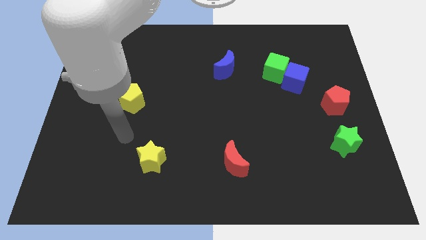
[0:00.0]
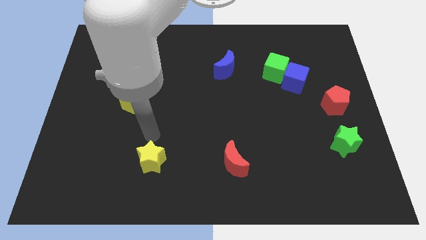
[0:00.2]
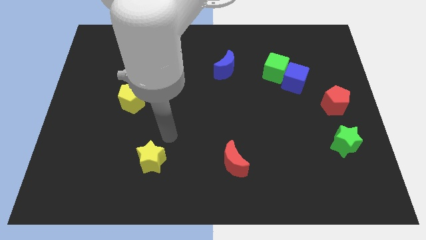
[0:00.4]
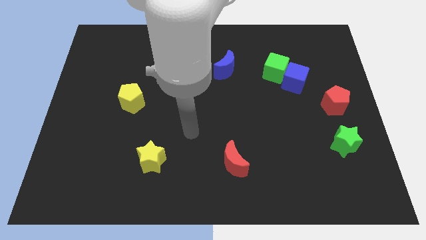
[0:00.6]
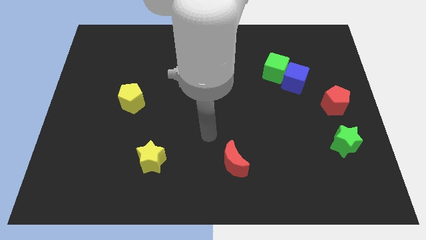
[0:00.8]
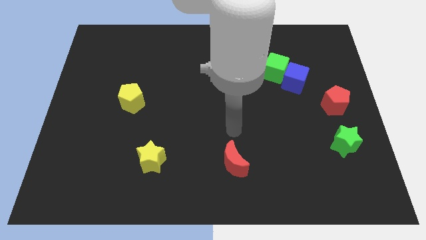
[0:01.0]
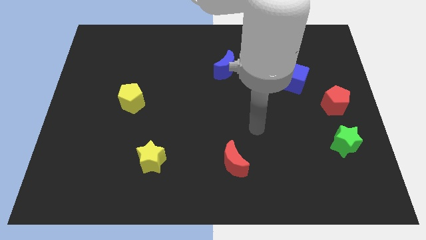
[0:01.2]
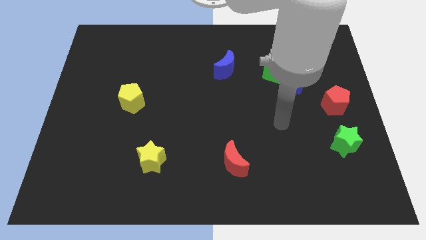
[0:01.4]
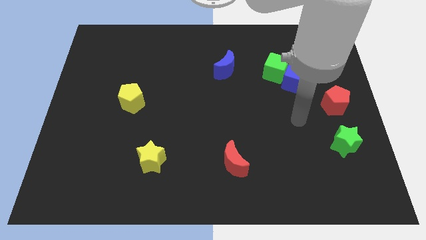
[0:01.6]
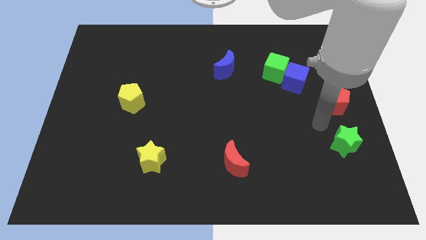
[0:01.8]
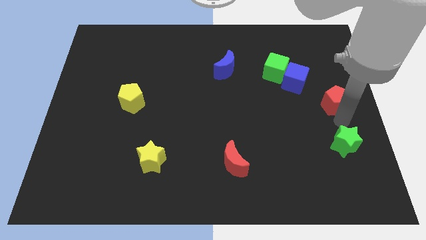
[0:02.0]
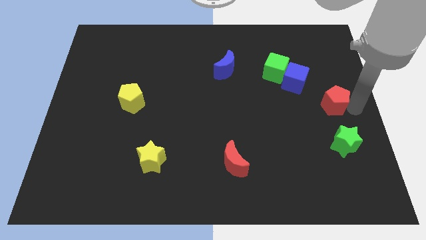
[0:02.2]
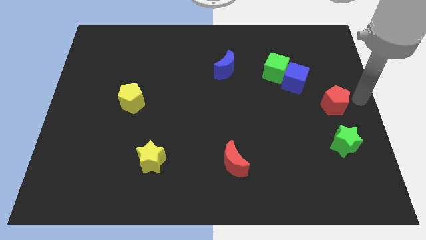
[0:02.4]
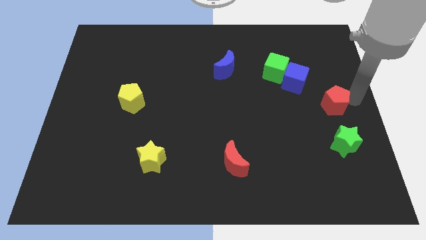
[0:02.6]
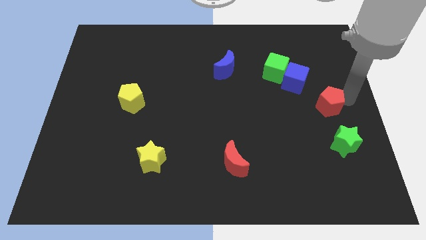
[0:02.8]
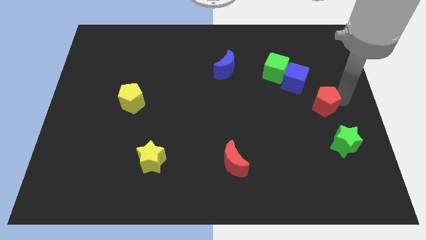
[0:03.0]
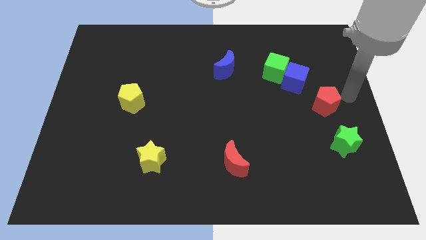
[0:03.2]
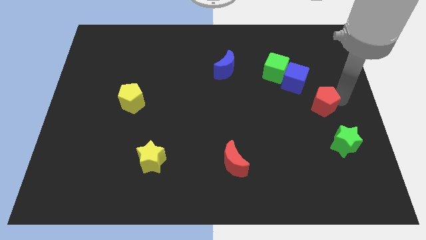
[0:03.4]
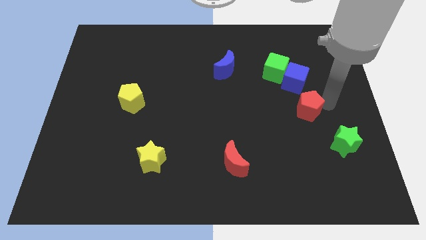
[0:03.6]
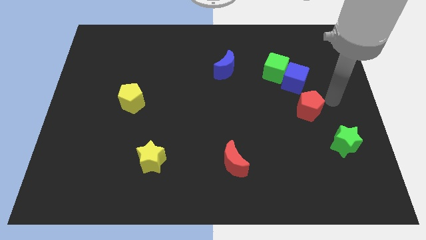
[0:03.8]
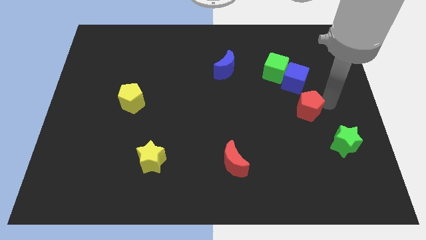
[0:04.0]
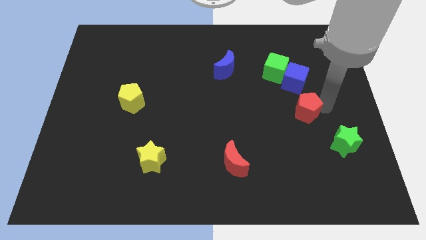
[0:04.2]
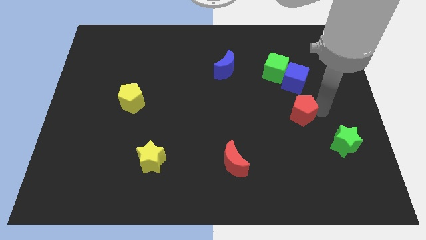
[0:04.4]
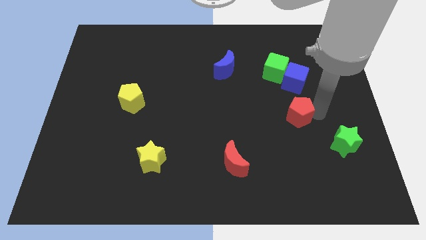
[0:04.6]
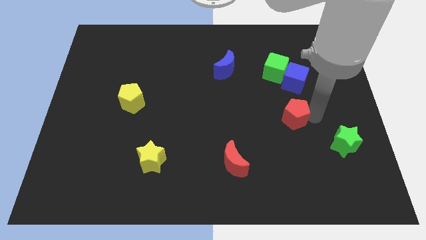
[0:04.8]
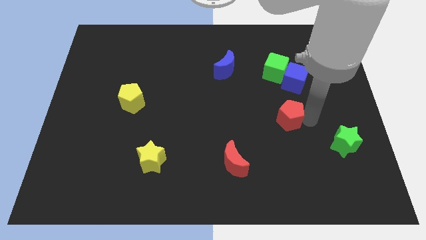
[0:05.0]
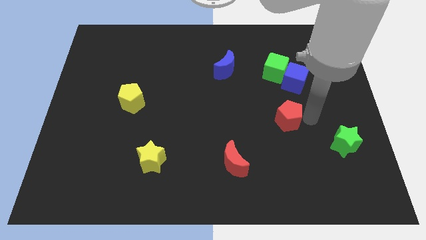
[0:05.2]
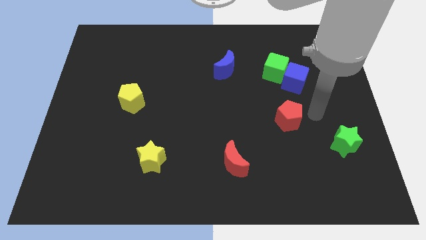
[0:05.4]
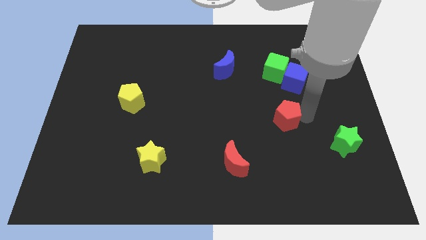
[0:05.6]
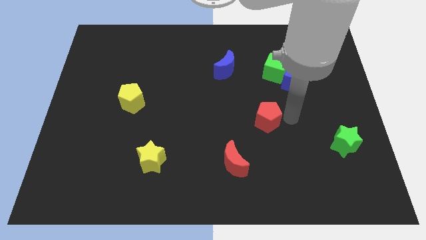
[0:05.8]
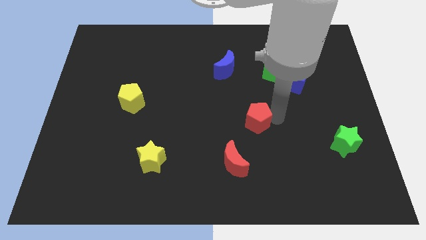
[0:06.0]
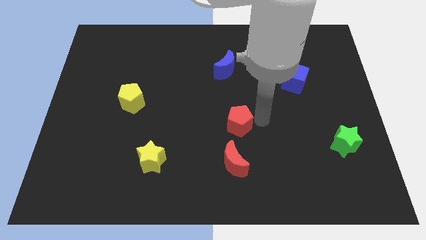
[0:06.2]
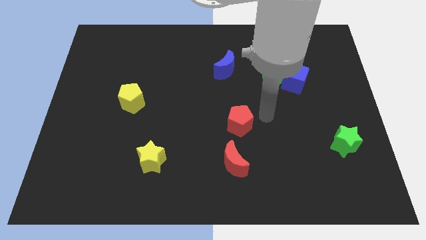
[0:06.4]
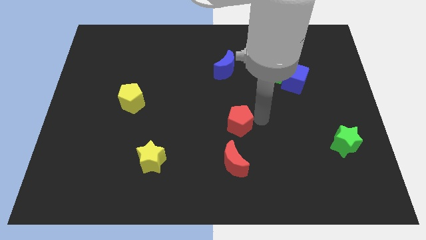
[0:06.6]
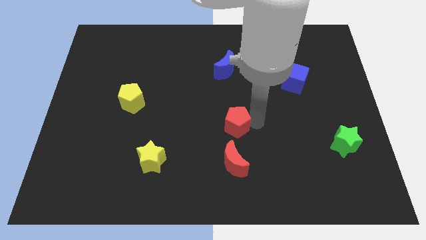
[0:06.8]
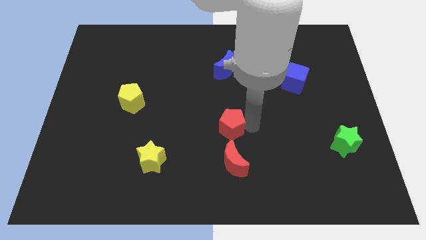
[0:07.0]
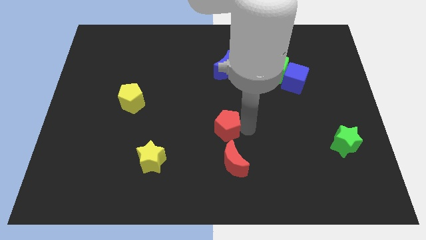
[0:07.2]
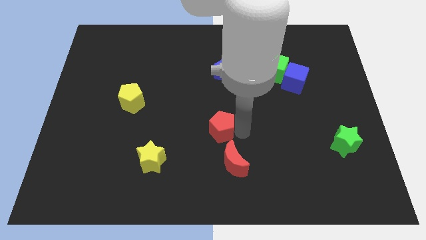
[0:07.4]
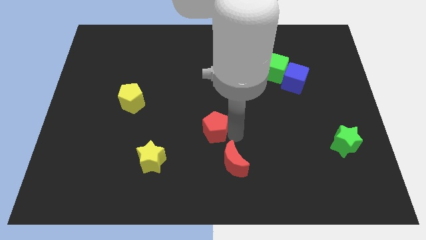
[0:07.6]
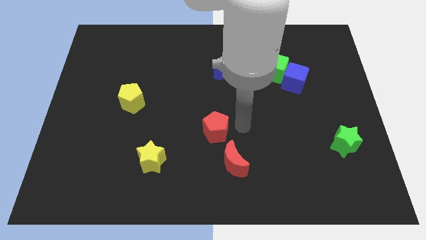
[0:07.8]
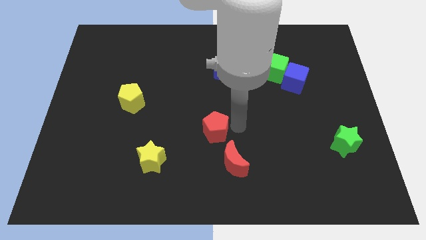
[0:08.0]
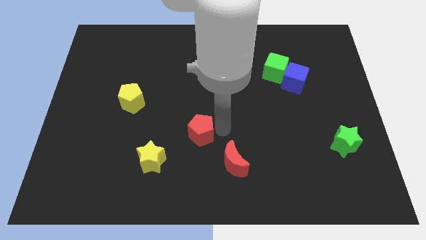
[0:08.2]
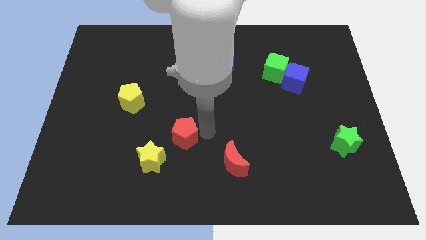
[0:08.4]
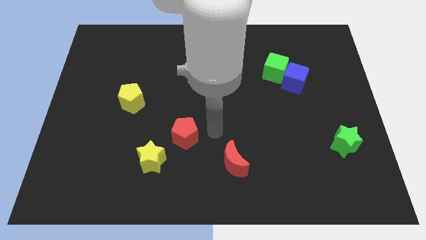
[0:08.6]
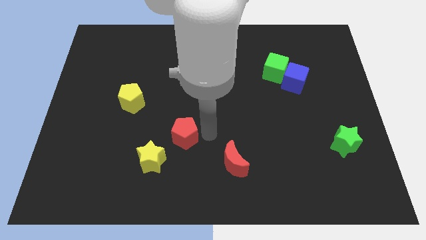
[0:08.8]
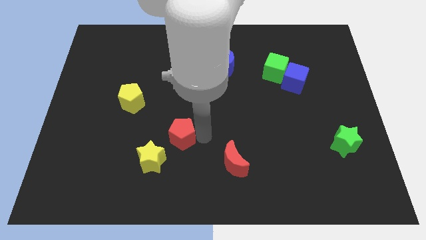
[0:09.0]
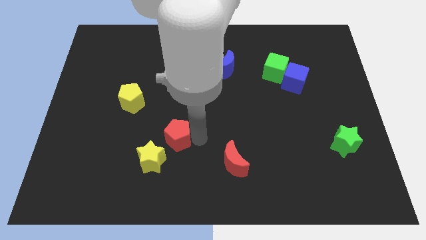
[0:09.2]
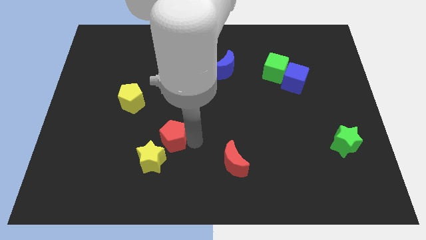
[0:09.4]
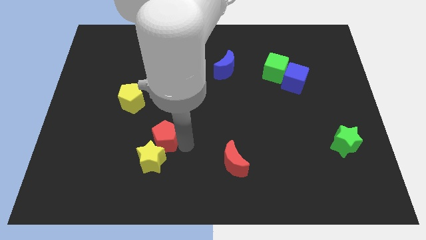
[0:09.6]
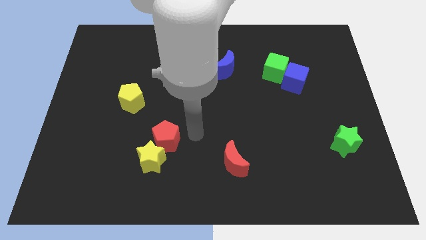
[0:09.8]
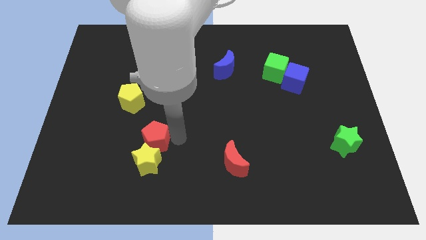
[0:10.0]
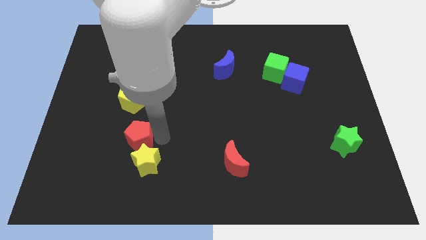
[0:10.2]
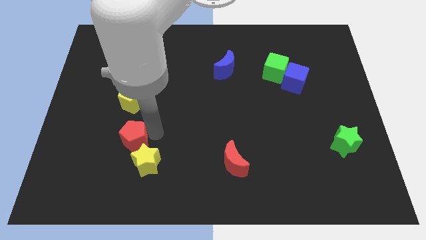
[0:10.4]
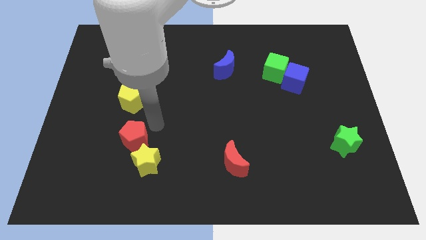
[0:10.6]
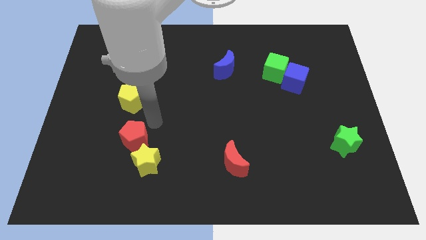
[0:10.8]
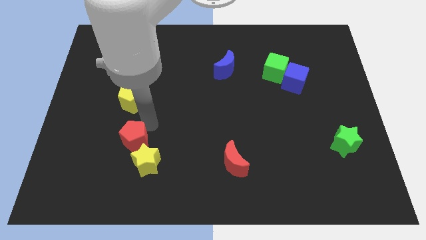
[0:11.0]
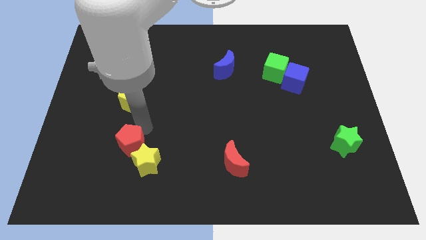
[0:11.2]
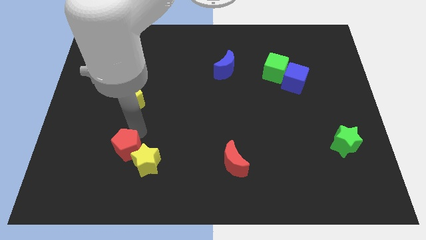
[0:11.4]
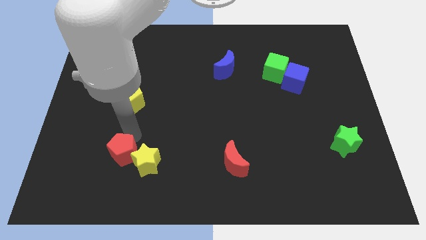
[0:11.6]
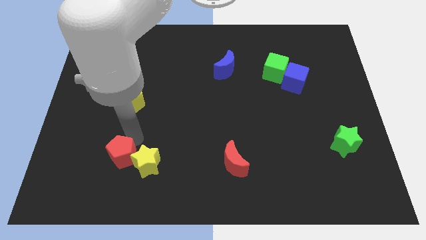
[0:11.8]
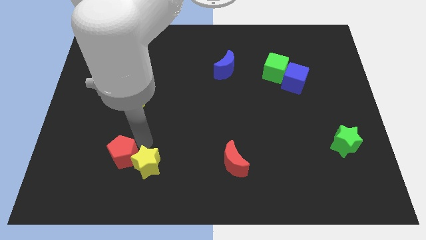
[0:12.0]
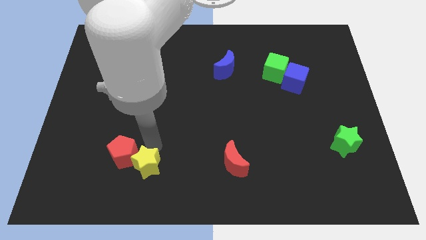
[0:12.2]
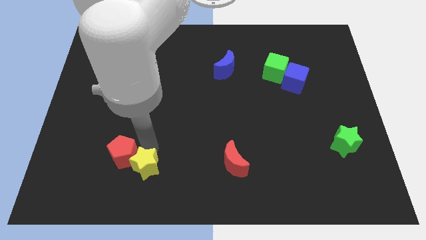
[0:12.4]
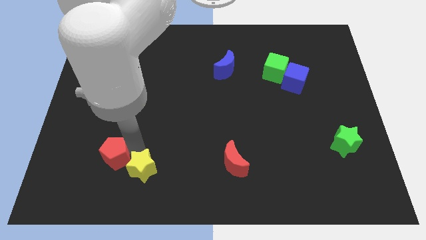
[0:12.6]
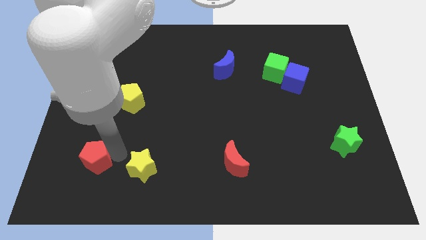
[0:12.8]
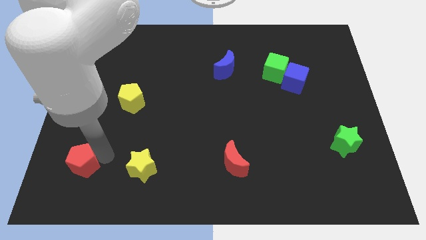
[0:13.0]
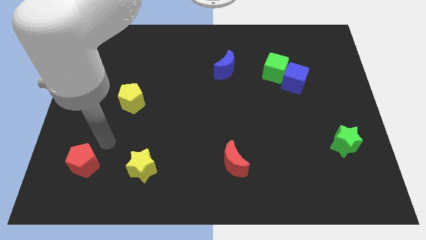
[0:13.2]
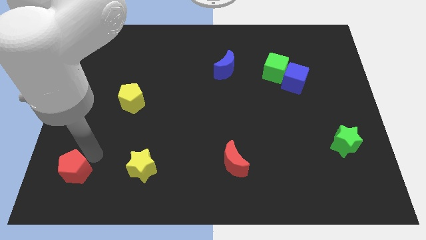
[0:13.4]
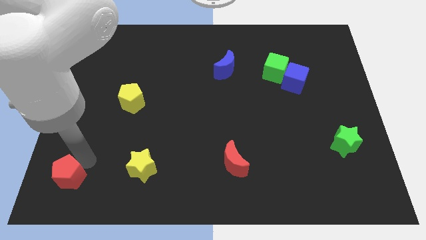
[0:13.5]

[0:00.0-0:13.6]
slide the red pentagon to the bottom left corner
